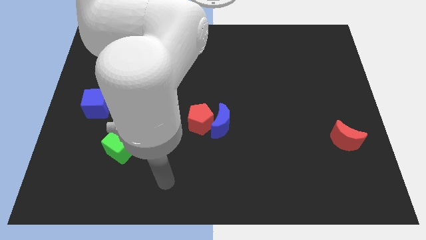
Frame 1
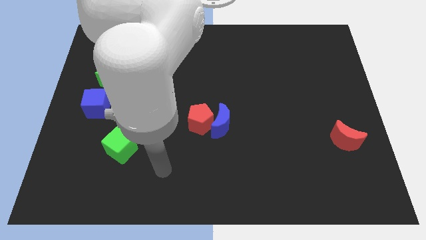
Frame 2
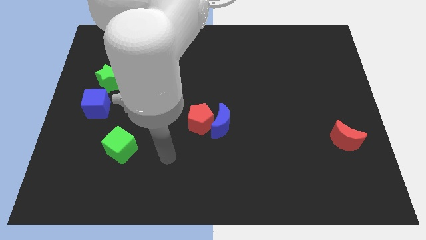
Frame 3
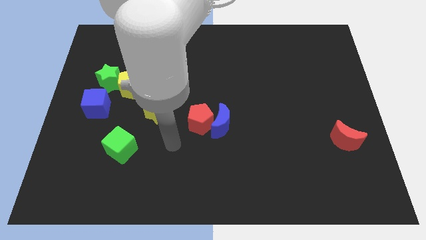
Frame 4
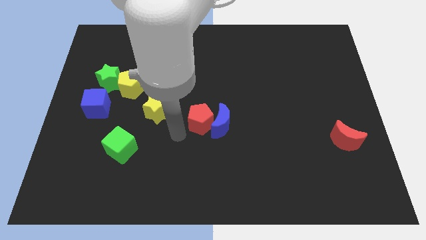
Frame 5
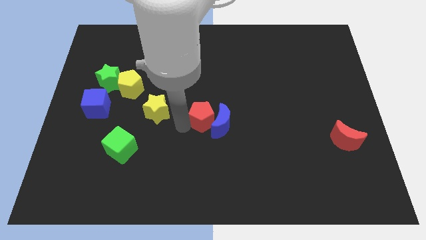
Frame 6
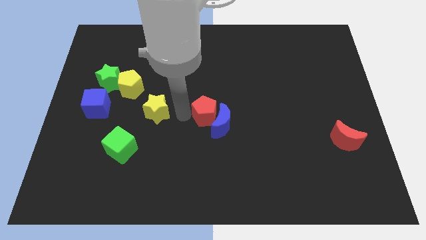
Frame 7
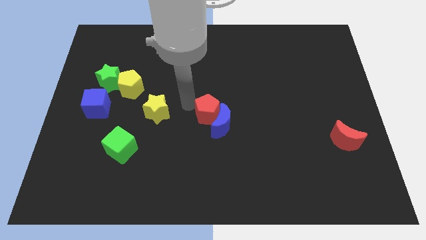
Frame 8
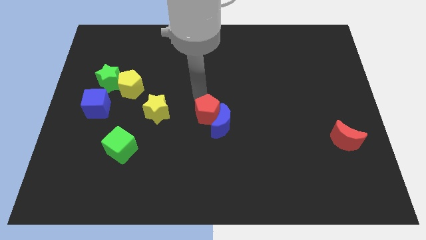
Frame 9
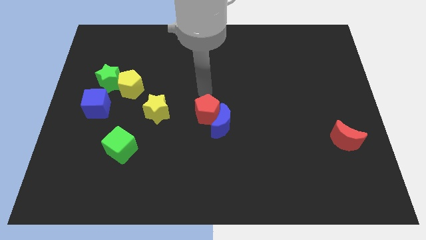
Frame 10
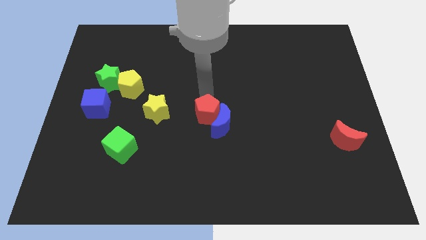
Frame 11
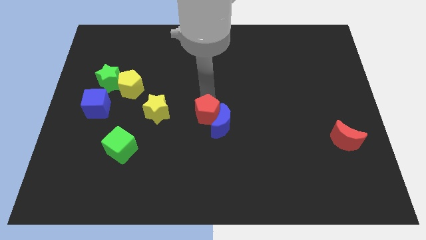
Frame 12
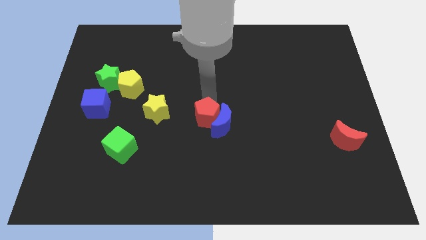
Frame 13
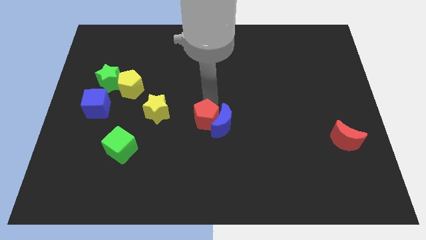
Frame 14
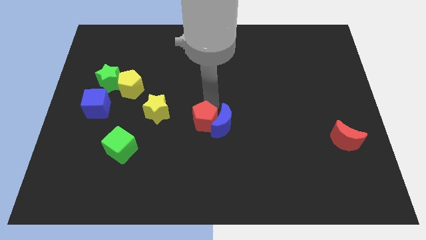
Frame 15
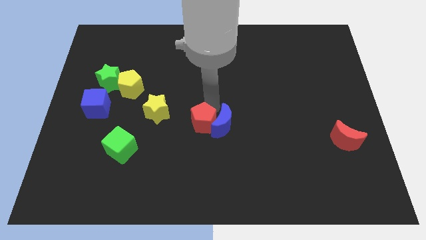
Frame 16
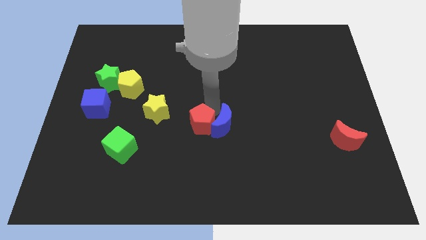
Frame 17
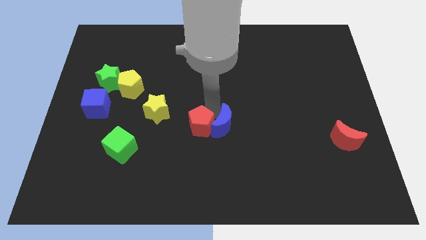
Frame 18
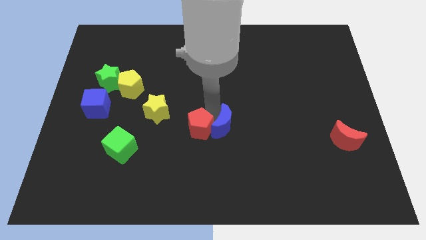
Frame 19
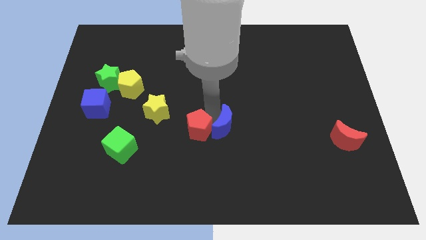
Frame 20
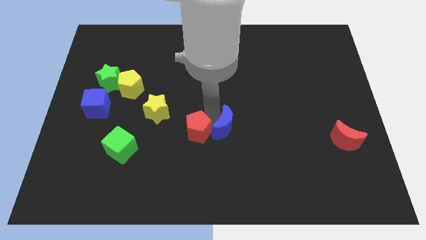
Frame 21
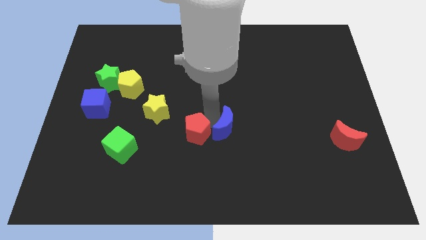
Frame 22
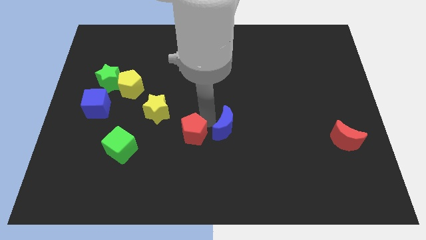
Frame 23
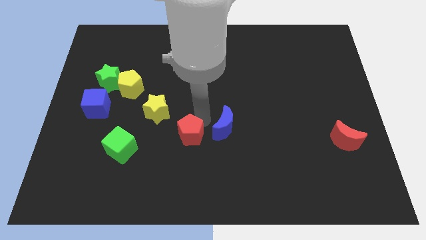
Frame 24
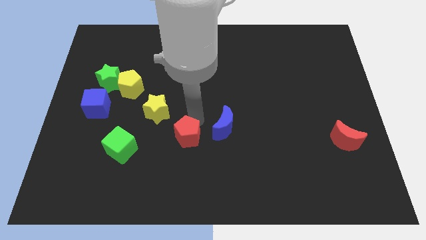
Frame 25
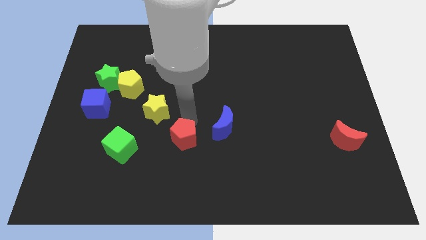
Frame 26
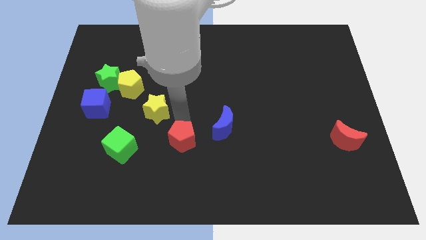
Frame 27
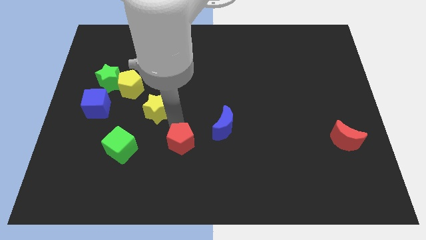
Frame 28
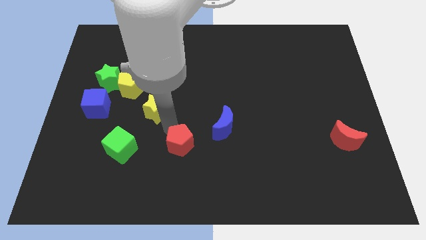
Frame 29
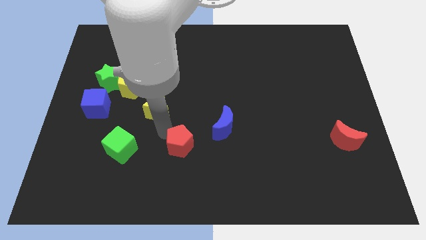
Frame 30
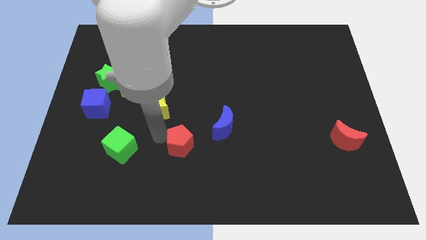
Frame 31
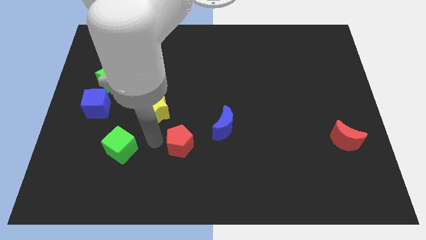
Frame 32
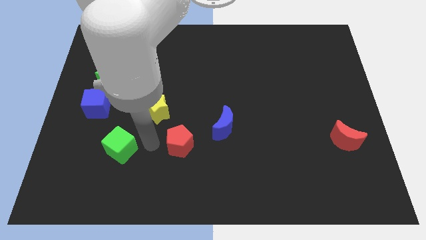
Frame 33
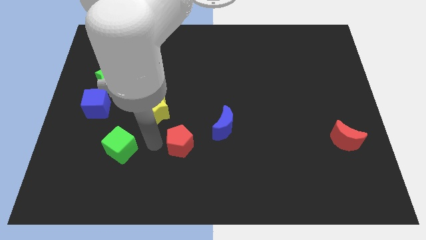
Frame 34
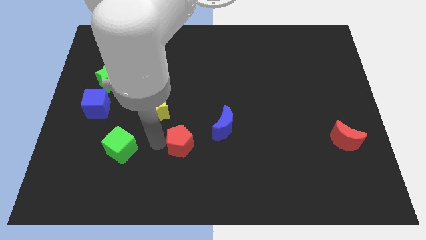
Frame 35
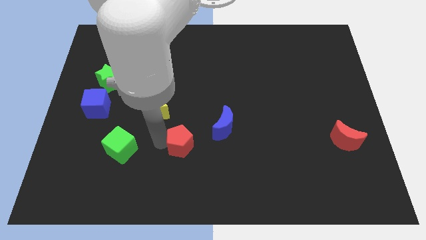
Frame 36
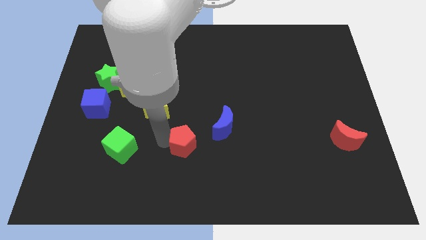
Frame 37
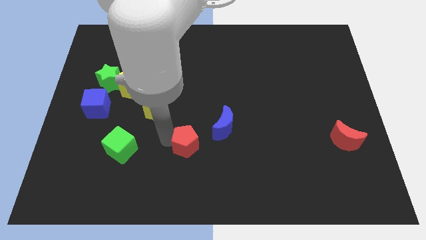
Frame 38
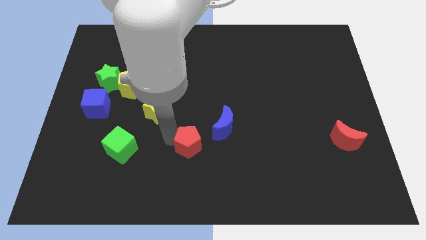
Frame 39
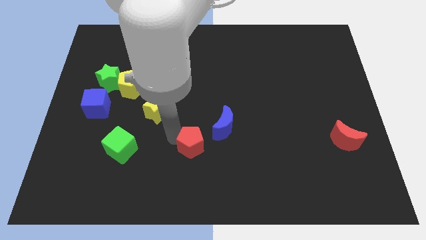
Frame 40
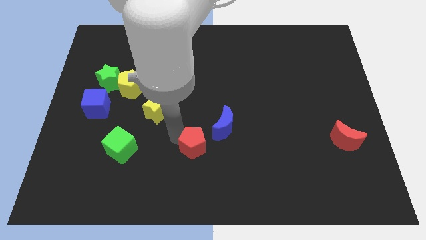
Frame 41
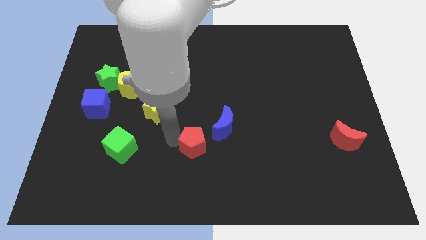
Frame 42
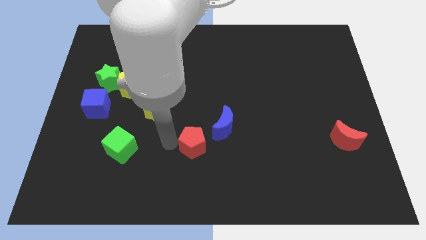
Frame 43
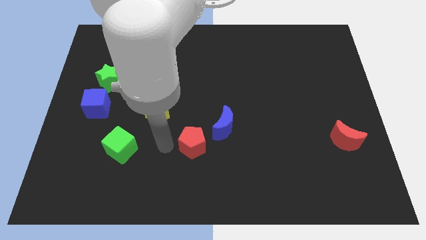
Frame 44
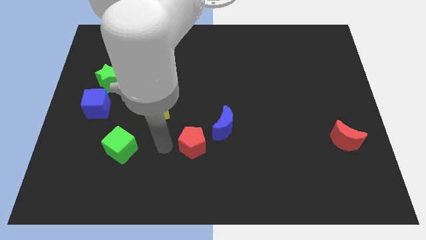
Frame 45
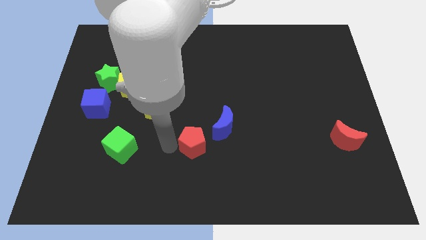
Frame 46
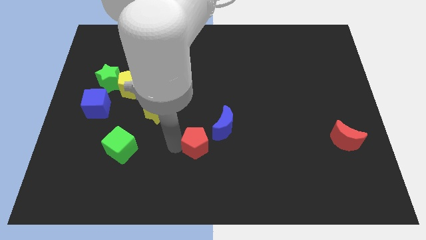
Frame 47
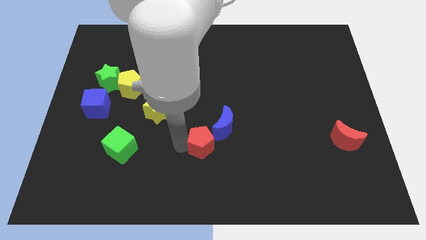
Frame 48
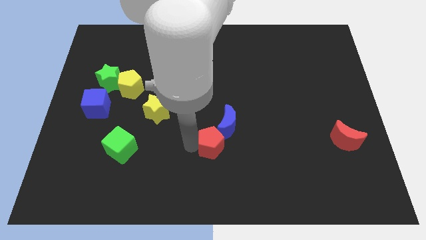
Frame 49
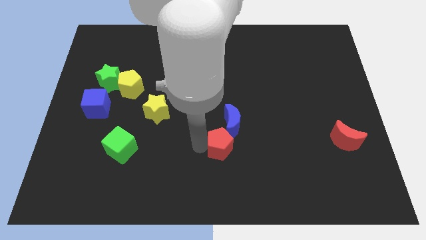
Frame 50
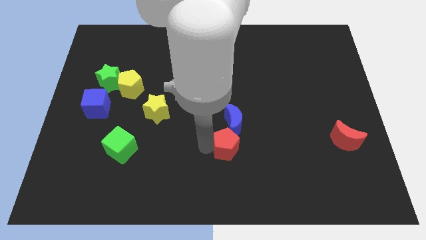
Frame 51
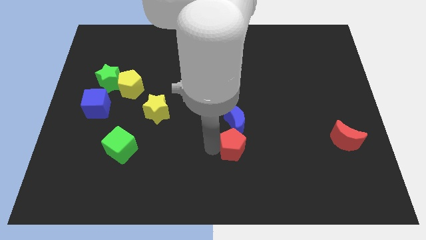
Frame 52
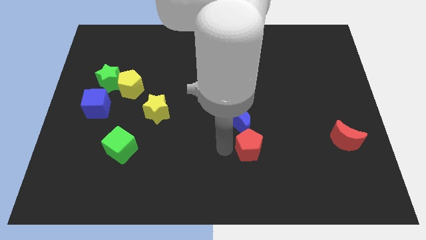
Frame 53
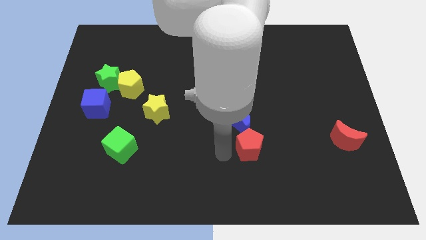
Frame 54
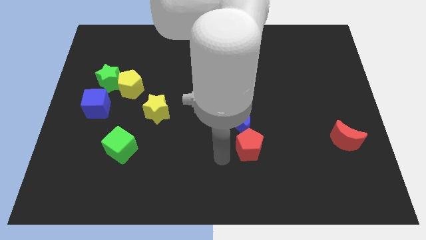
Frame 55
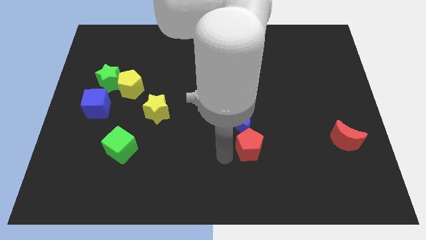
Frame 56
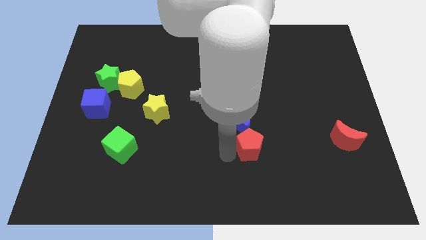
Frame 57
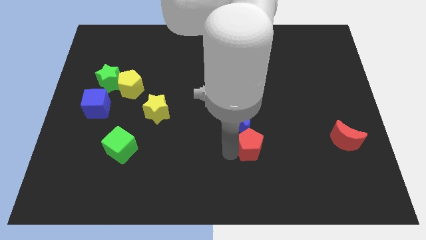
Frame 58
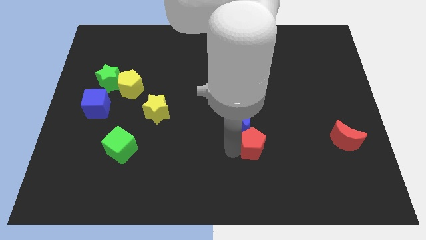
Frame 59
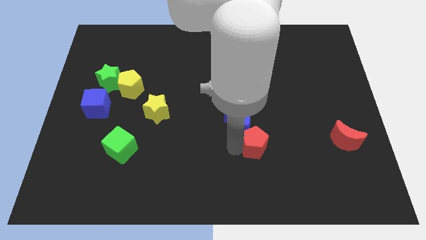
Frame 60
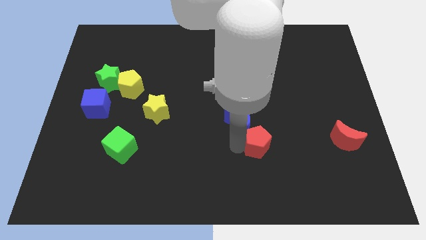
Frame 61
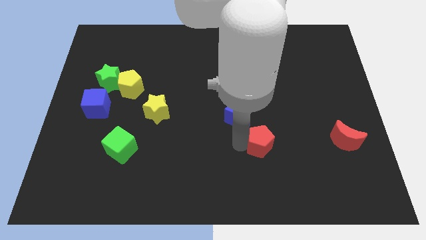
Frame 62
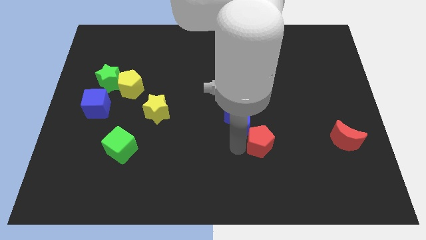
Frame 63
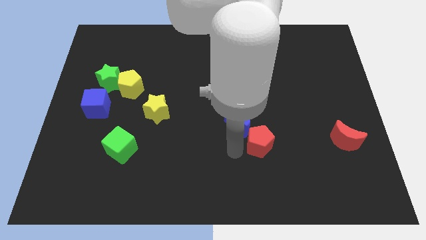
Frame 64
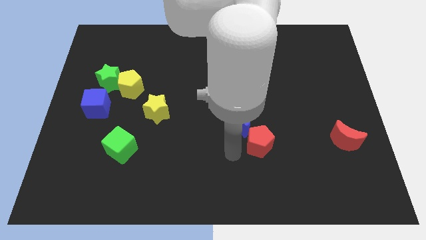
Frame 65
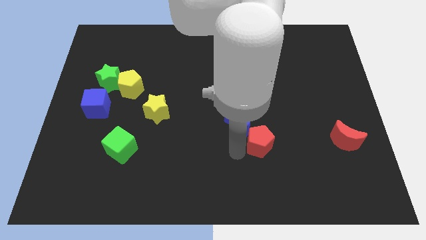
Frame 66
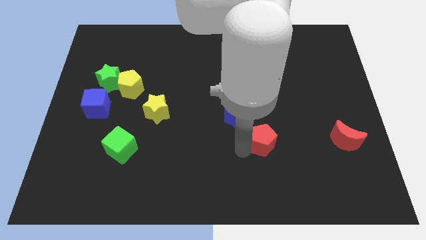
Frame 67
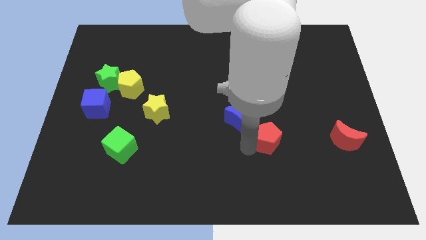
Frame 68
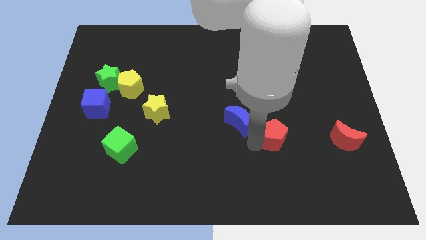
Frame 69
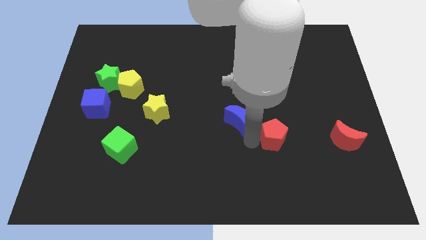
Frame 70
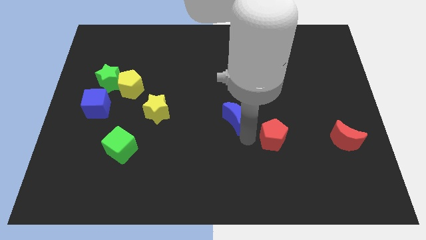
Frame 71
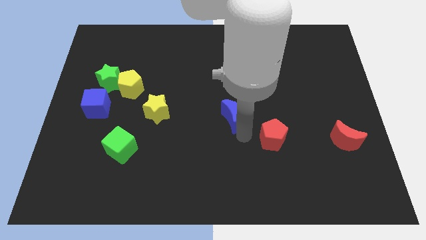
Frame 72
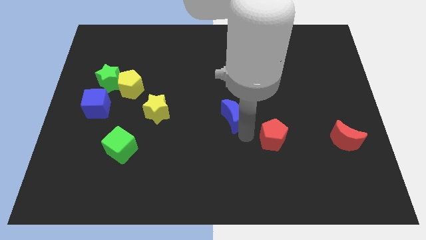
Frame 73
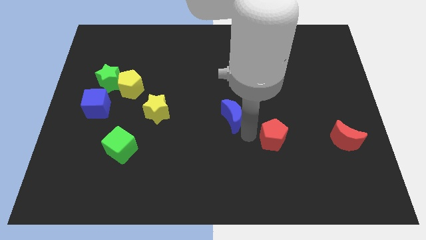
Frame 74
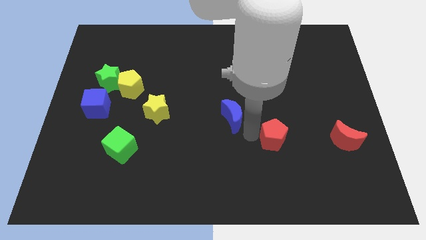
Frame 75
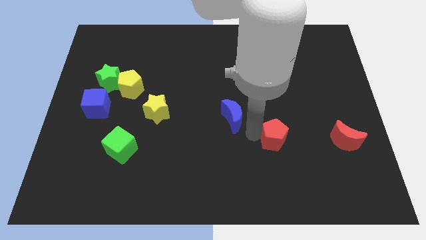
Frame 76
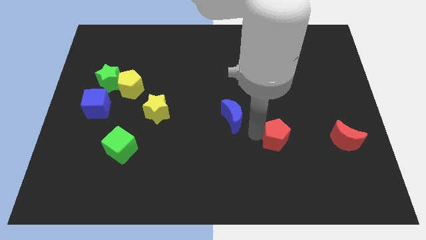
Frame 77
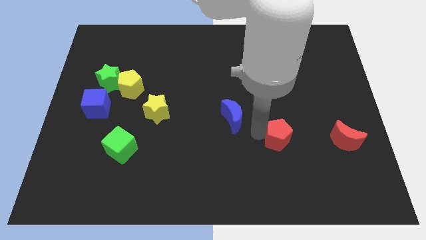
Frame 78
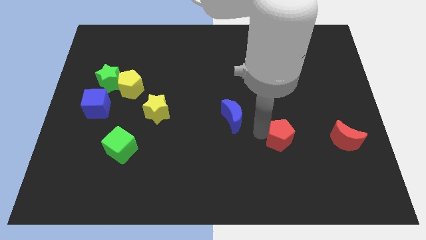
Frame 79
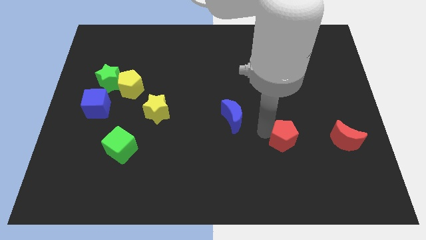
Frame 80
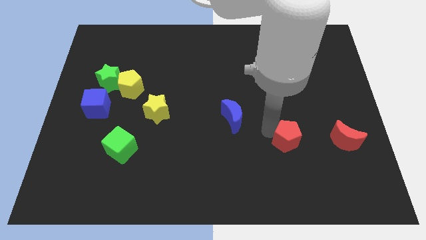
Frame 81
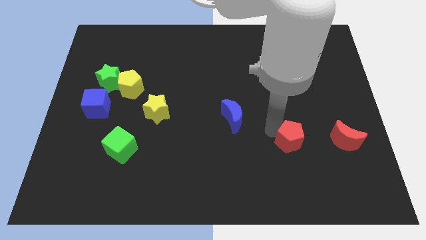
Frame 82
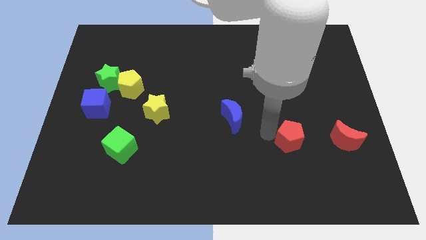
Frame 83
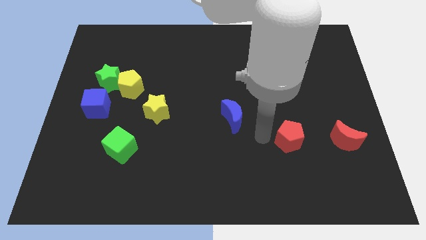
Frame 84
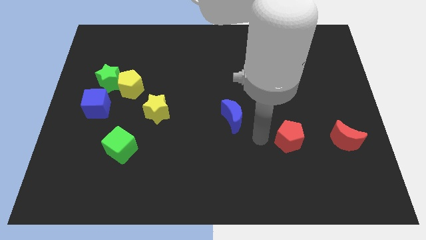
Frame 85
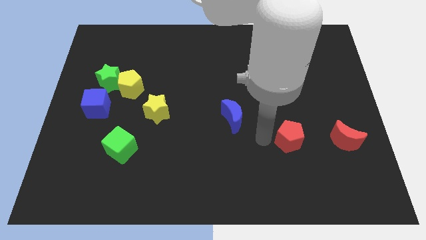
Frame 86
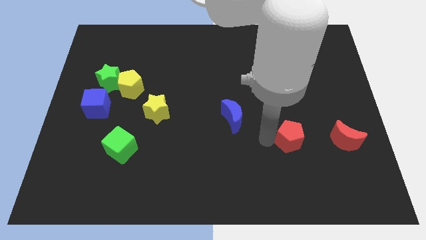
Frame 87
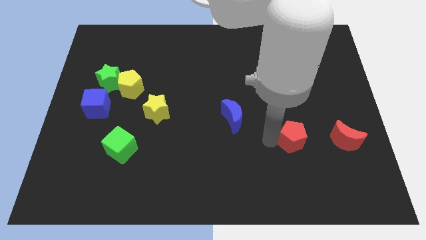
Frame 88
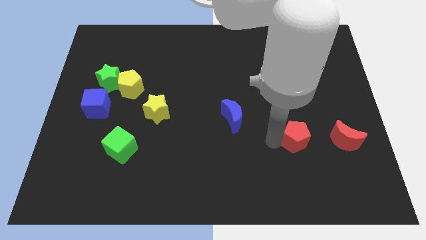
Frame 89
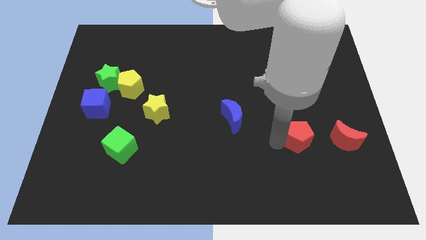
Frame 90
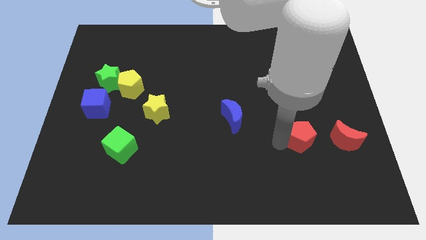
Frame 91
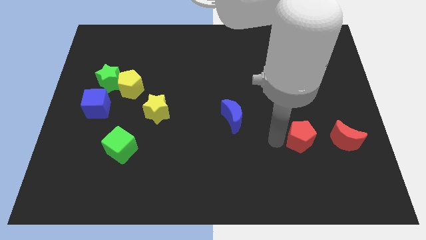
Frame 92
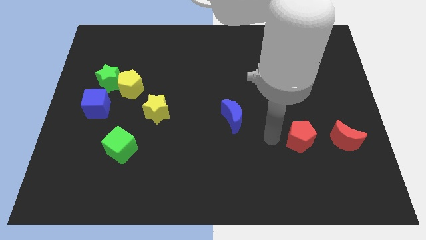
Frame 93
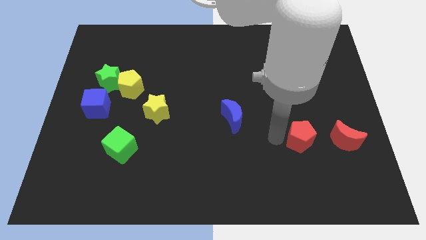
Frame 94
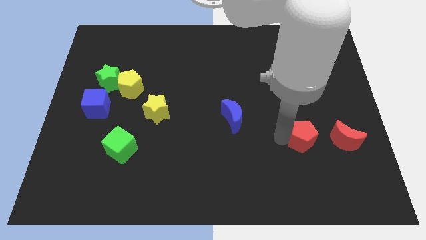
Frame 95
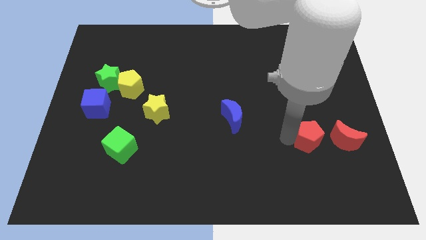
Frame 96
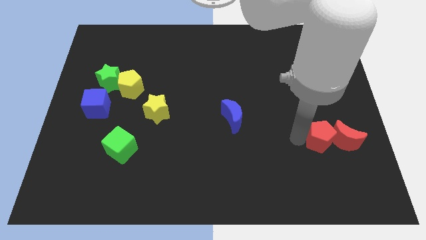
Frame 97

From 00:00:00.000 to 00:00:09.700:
put the red pentagon to the red moon
